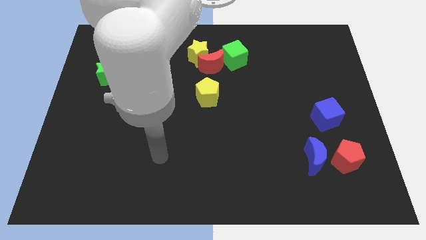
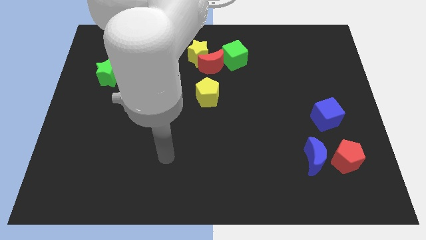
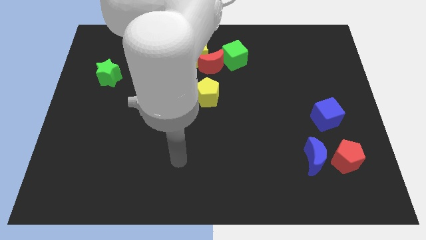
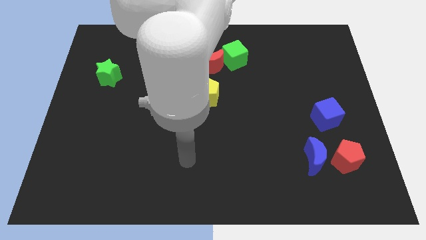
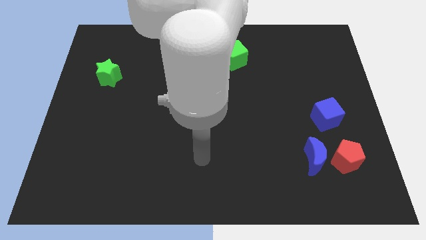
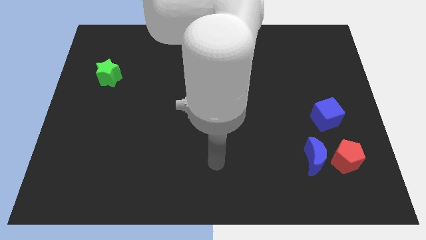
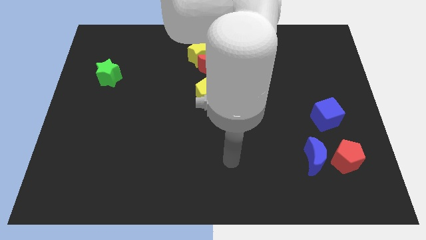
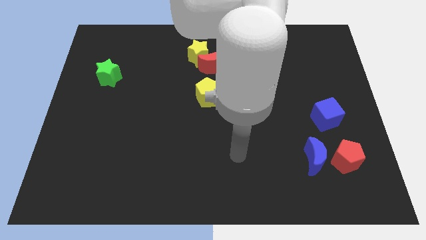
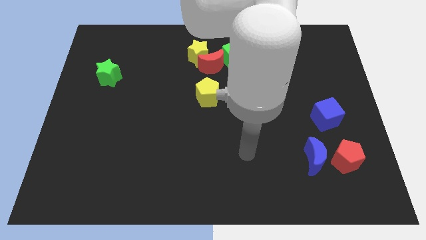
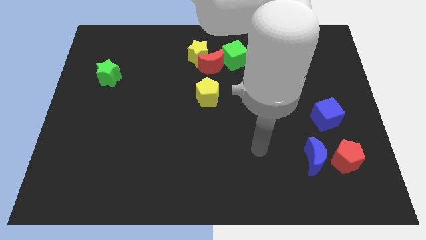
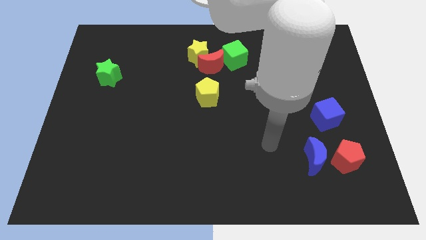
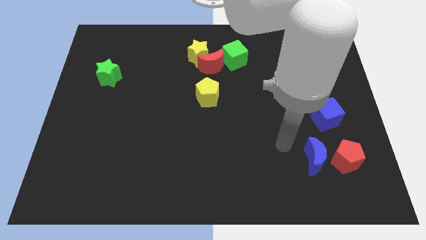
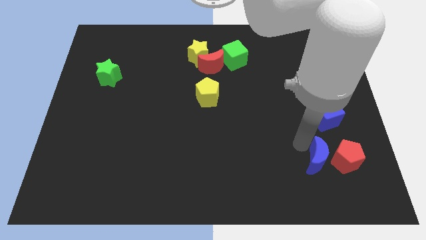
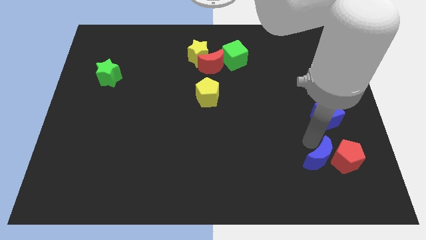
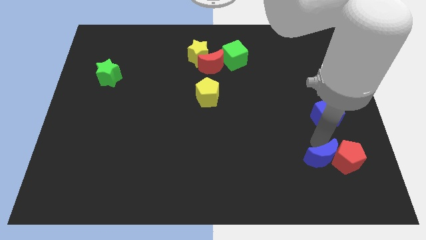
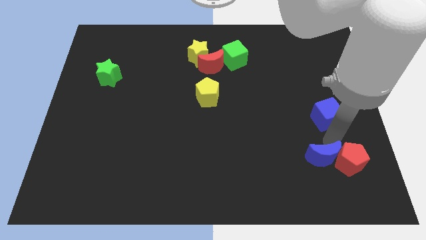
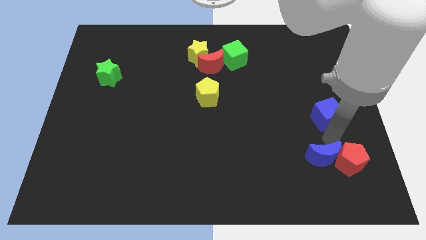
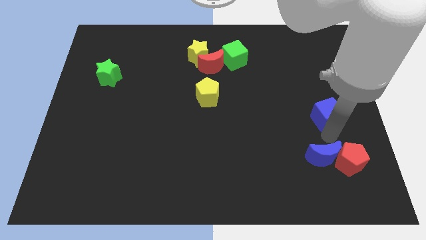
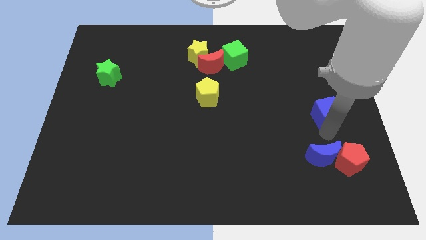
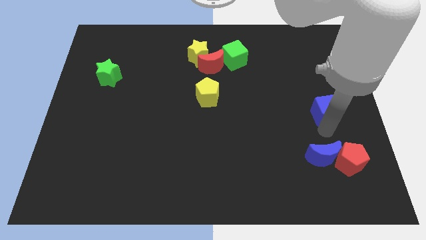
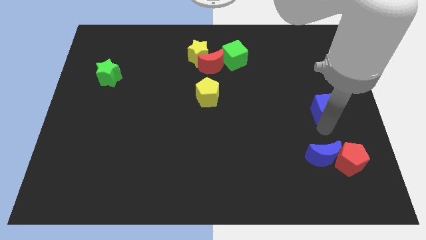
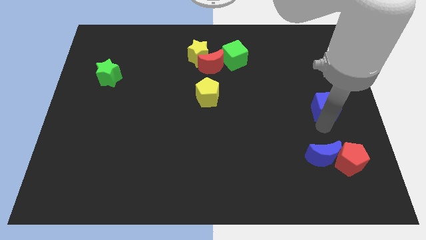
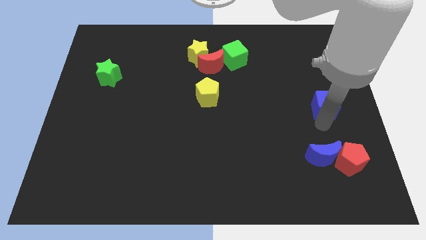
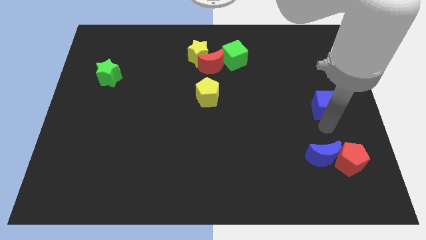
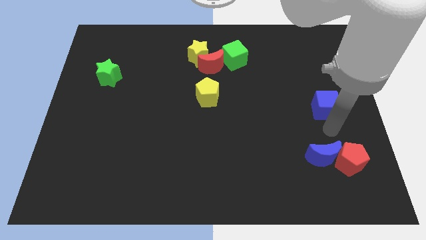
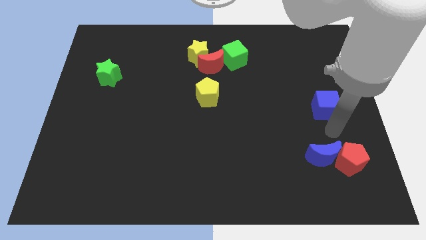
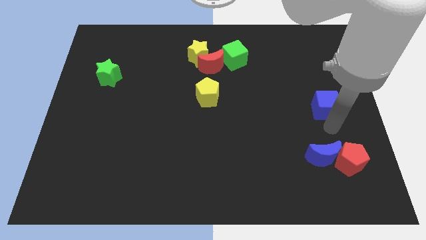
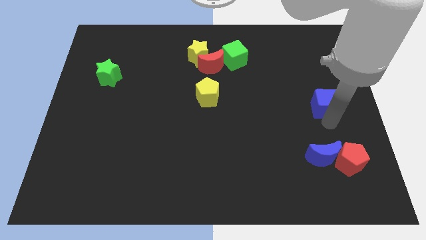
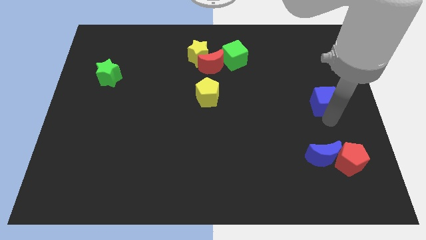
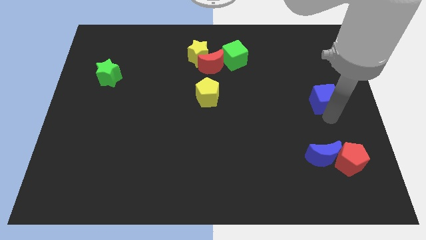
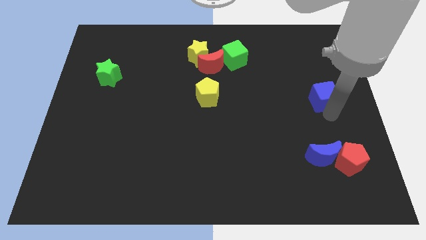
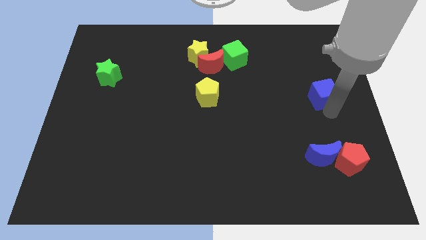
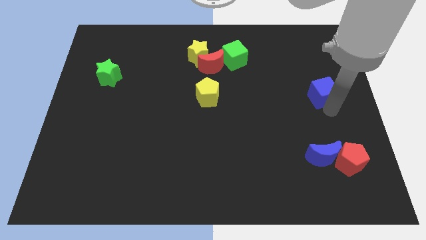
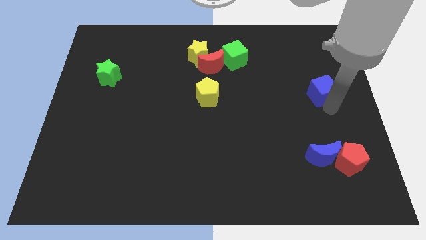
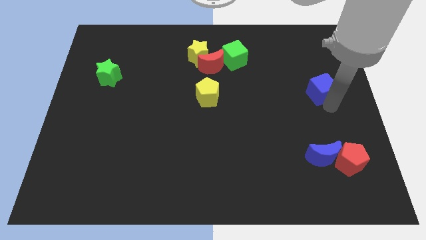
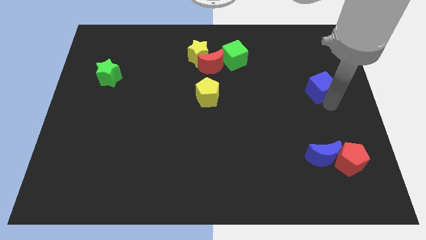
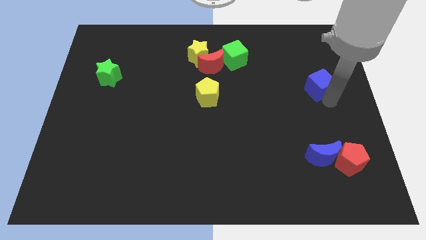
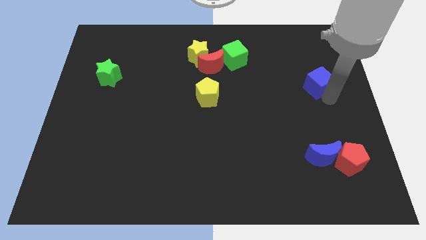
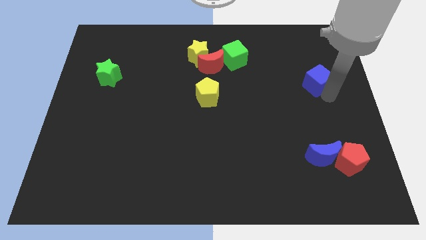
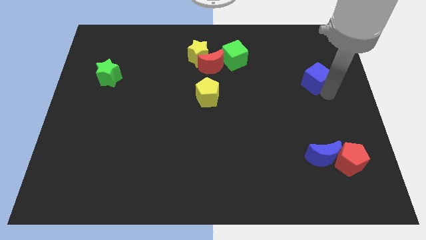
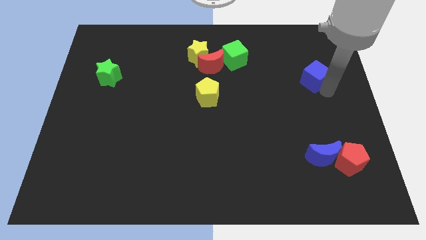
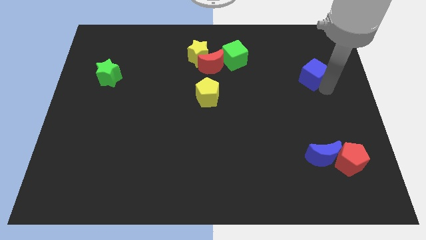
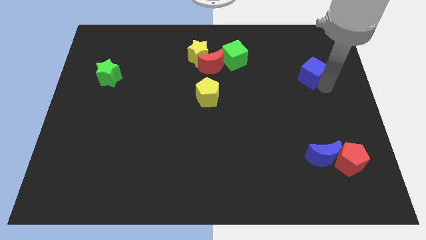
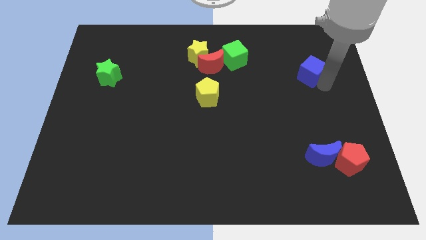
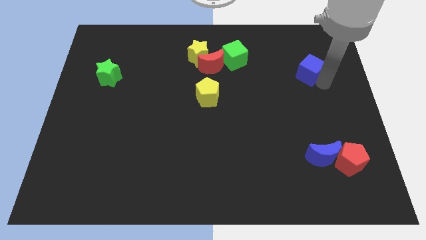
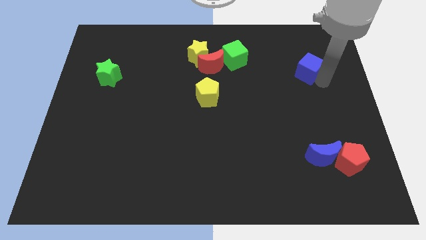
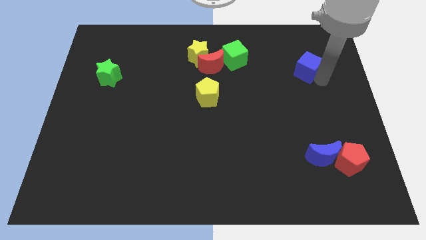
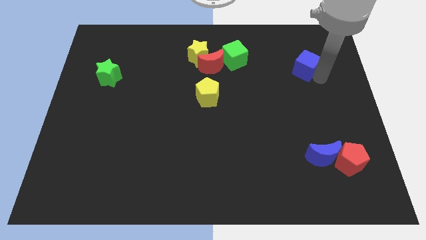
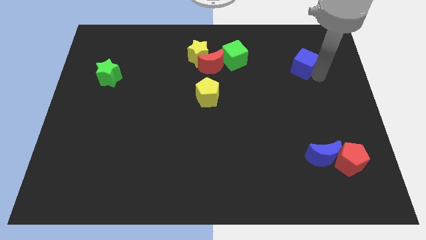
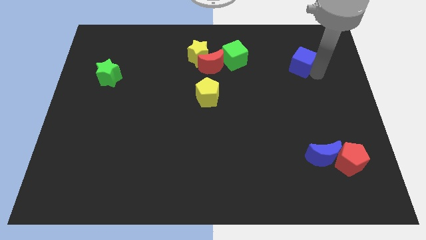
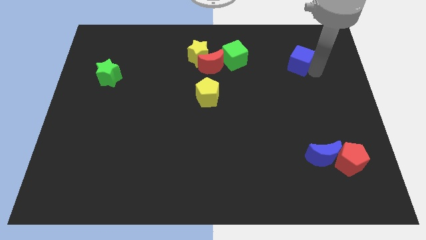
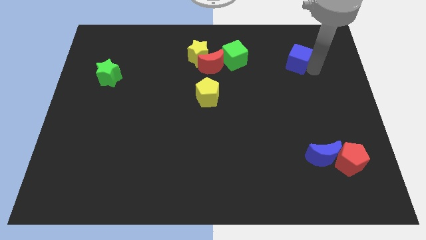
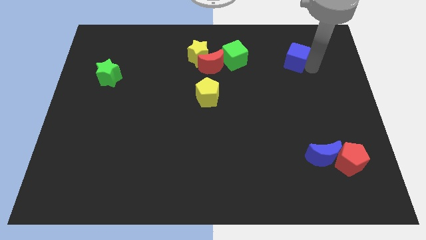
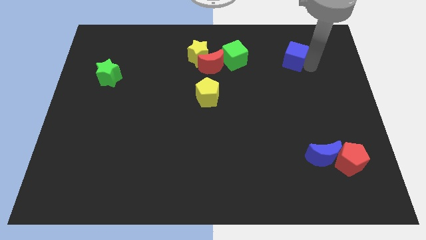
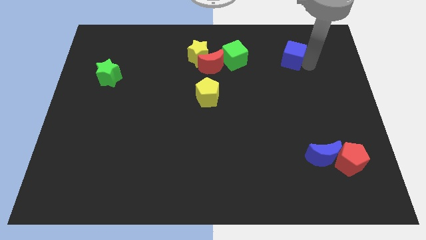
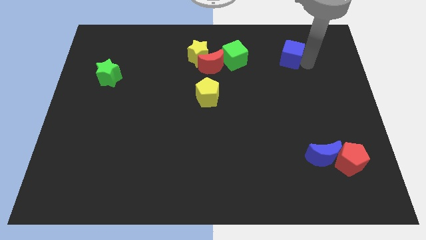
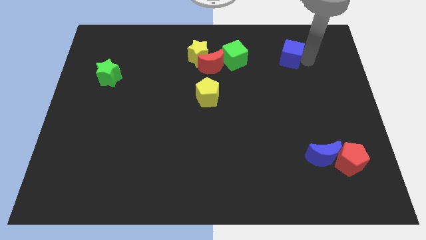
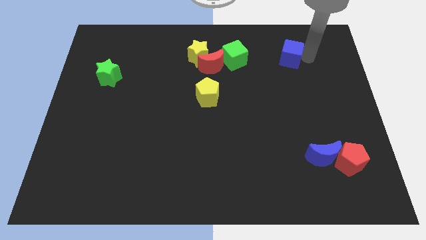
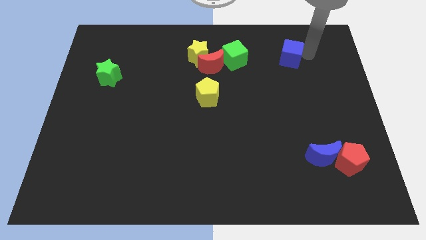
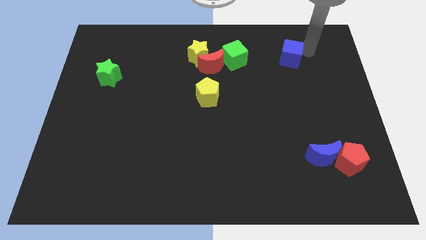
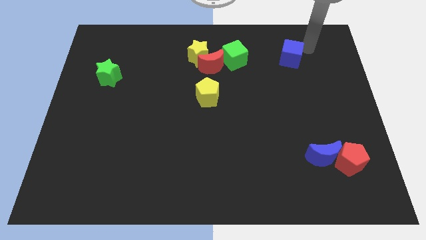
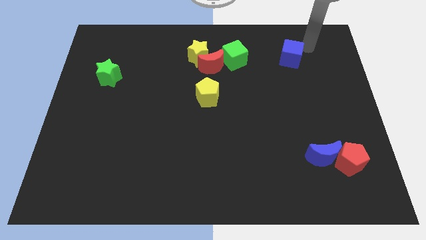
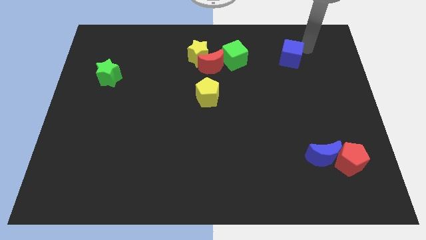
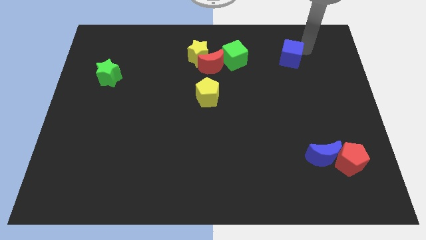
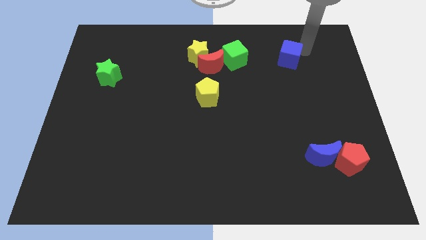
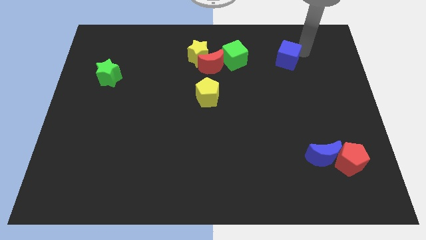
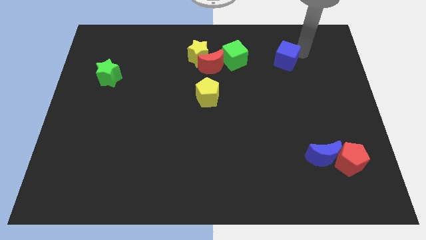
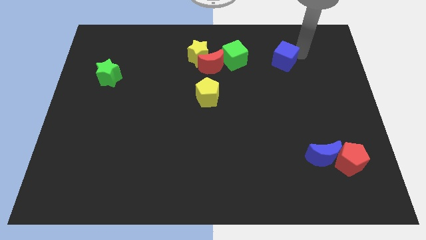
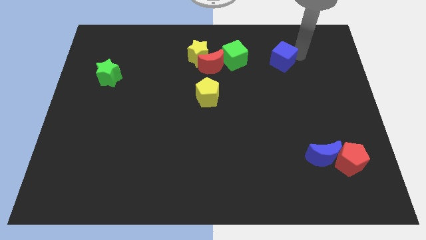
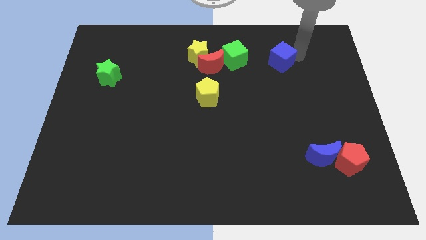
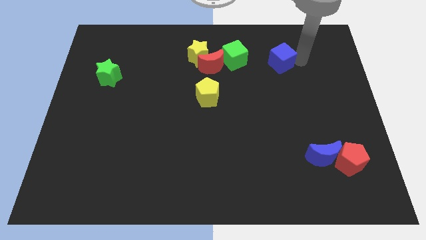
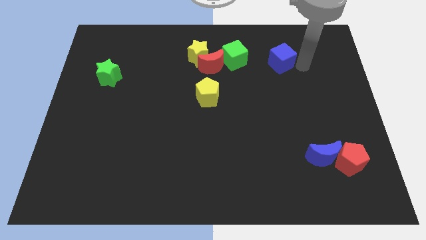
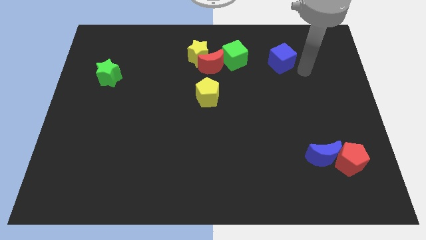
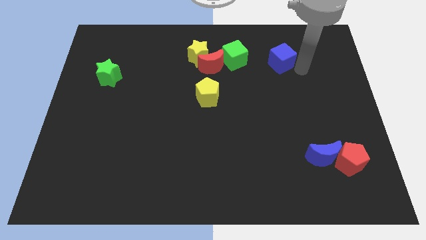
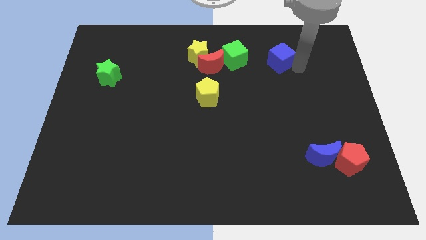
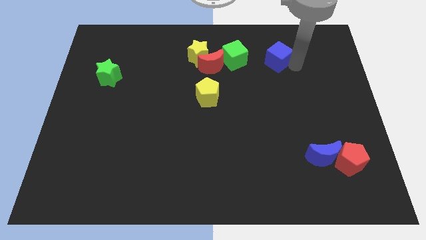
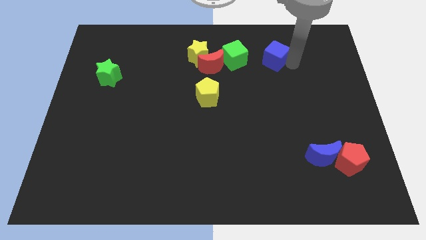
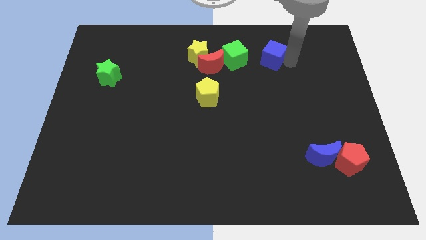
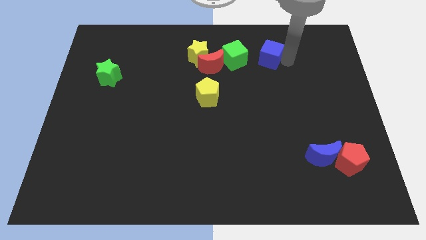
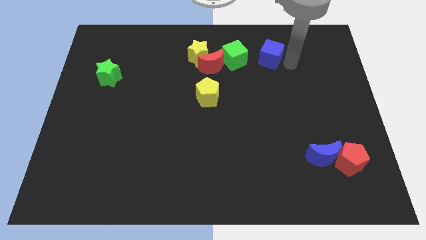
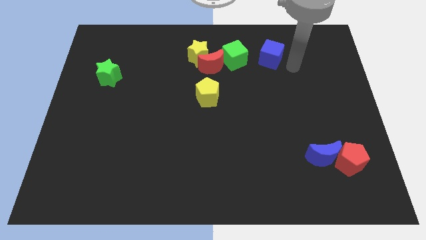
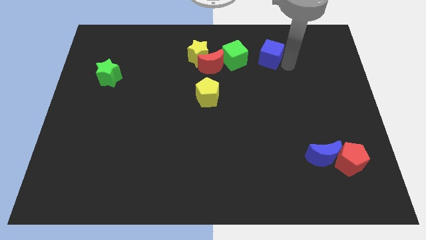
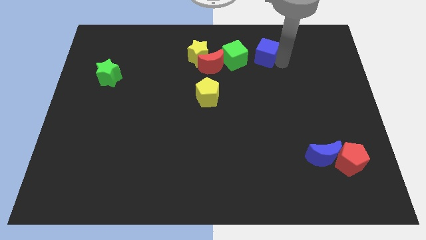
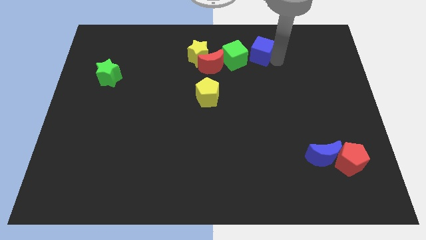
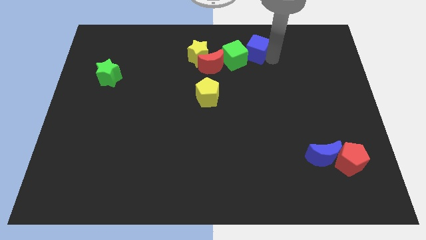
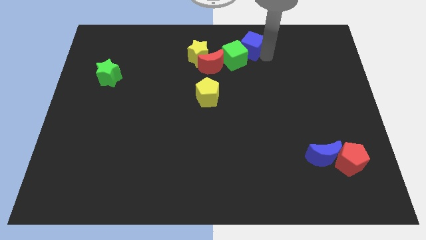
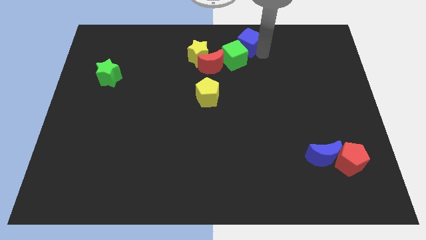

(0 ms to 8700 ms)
slide the blue cube to the top side
